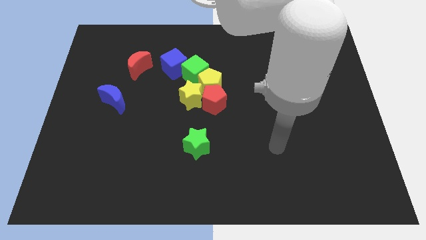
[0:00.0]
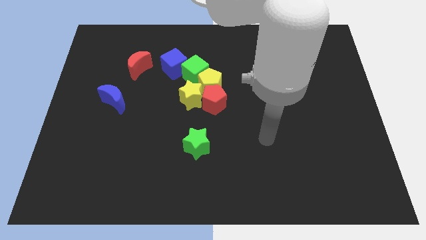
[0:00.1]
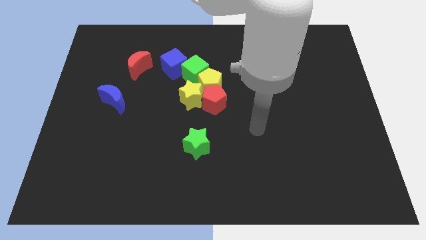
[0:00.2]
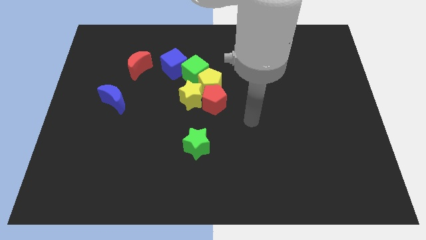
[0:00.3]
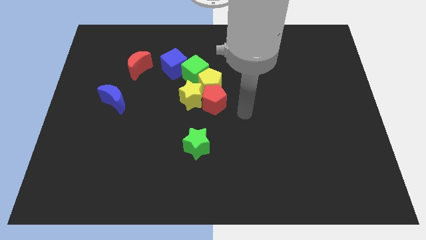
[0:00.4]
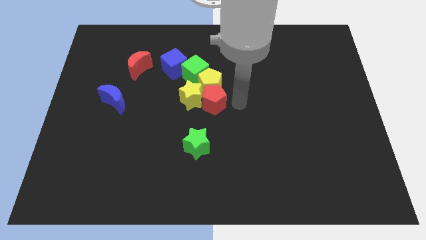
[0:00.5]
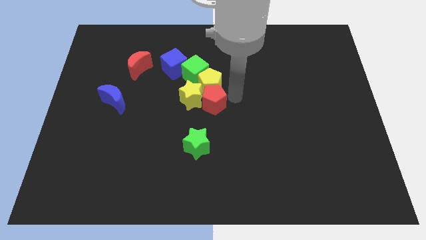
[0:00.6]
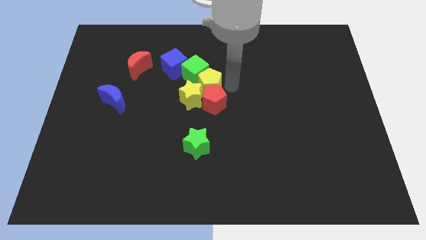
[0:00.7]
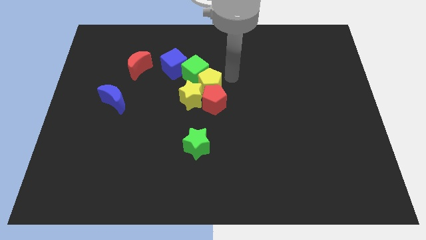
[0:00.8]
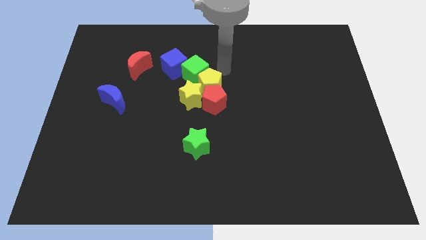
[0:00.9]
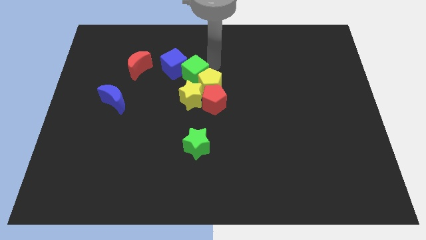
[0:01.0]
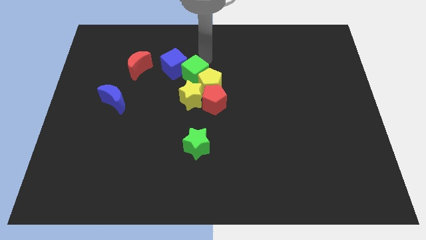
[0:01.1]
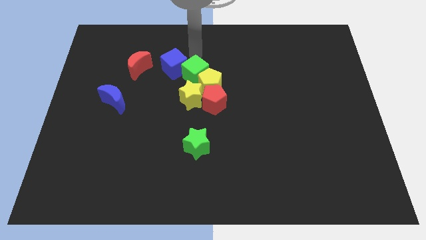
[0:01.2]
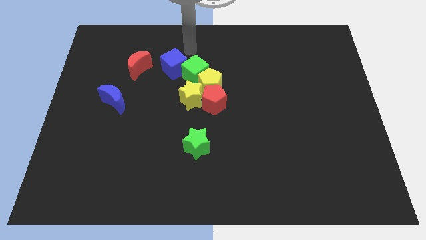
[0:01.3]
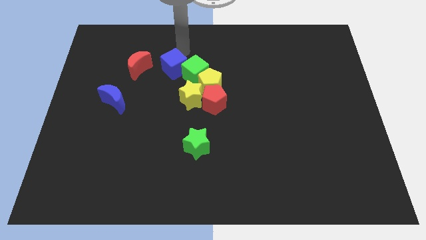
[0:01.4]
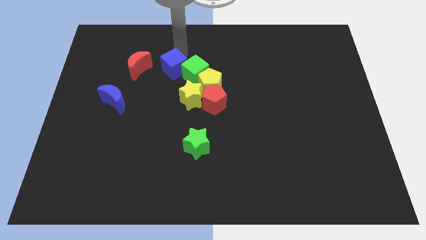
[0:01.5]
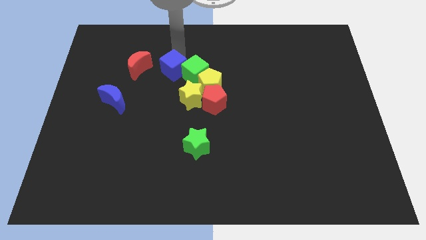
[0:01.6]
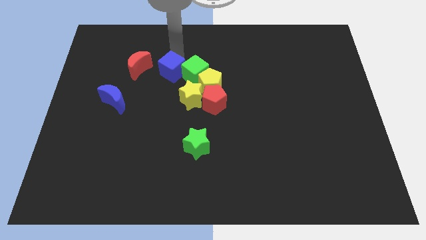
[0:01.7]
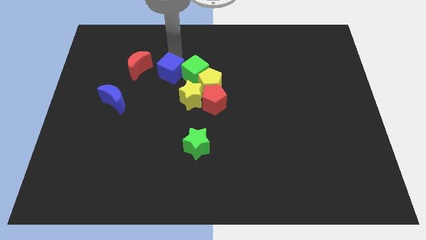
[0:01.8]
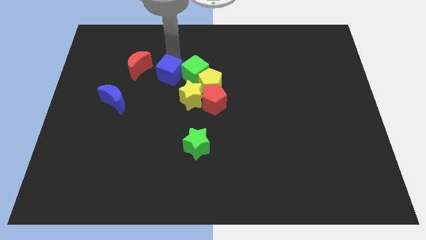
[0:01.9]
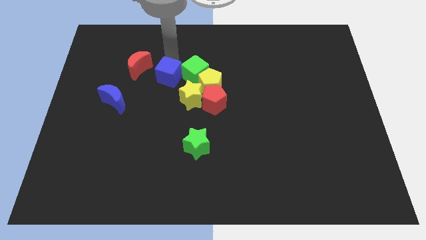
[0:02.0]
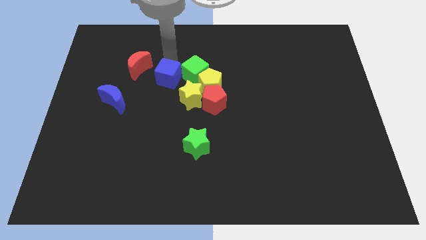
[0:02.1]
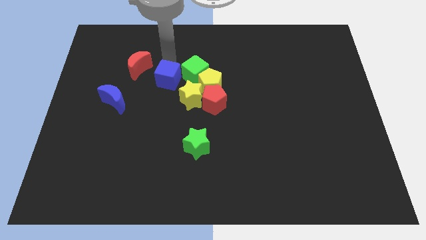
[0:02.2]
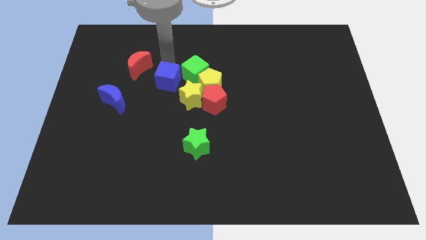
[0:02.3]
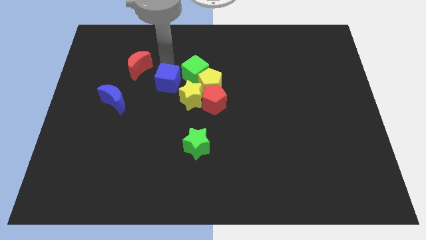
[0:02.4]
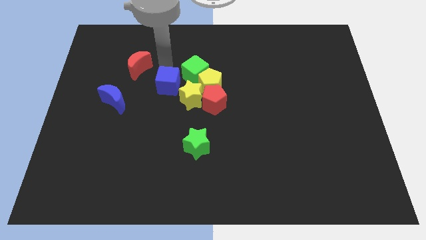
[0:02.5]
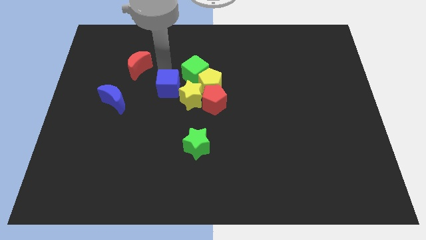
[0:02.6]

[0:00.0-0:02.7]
slightly move the blue cube downwards

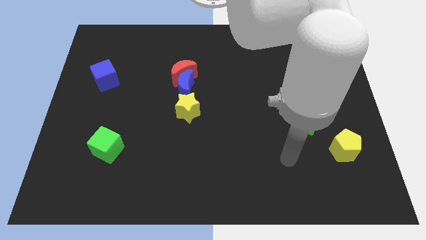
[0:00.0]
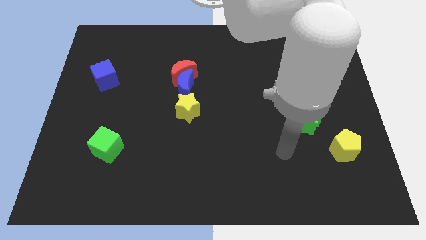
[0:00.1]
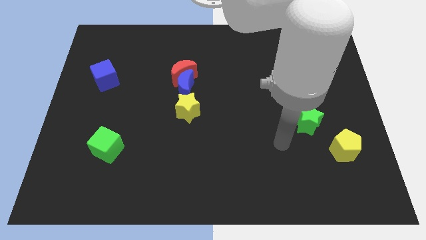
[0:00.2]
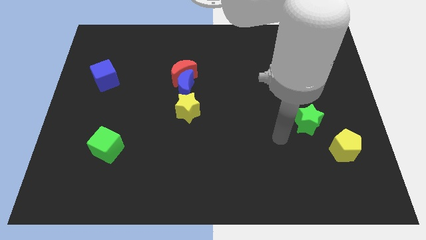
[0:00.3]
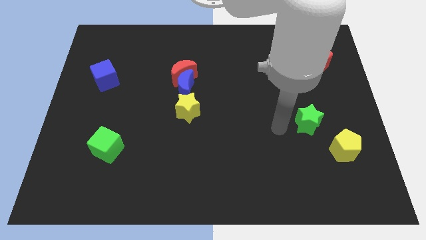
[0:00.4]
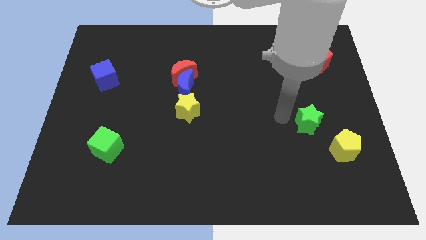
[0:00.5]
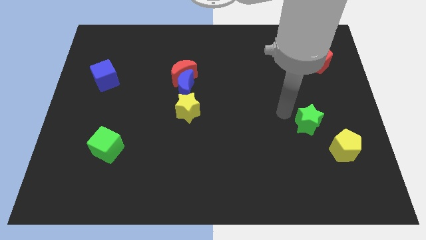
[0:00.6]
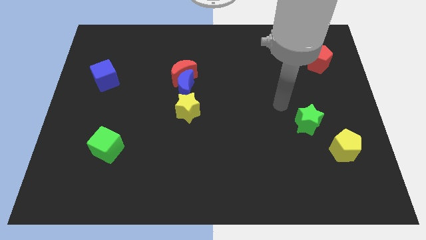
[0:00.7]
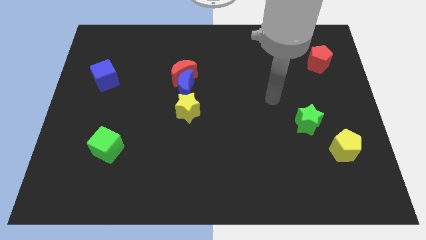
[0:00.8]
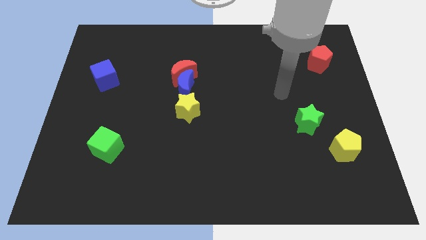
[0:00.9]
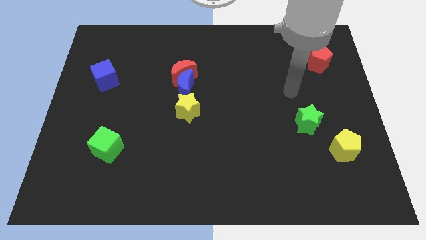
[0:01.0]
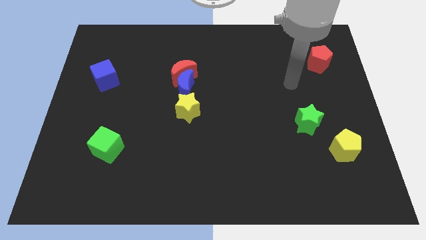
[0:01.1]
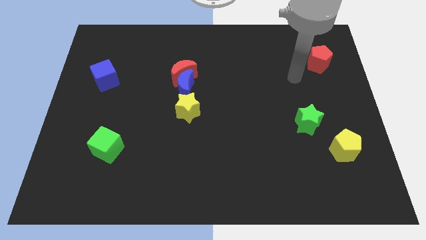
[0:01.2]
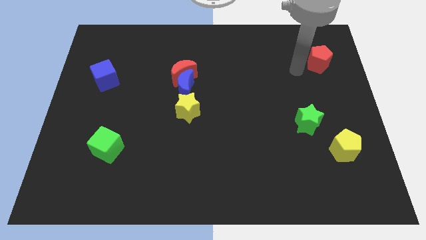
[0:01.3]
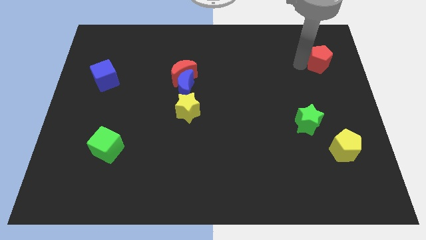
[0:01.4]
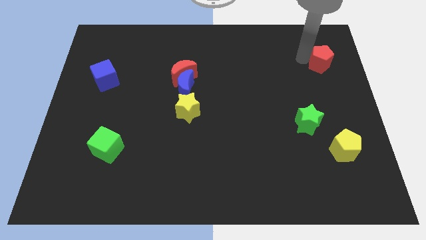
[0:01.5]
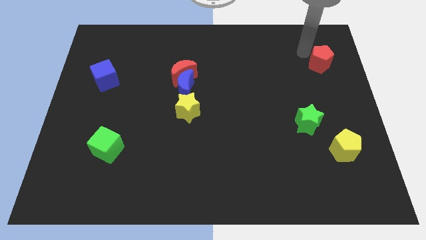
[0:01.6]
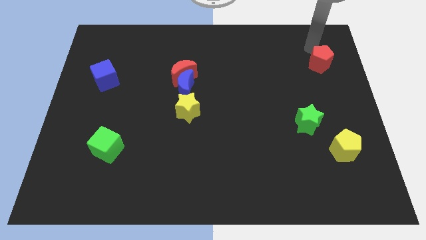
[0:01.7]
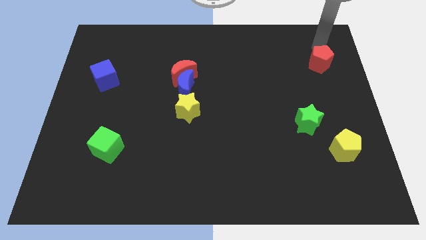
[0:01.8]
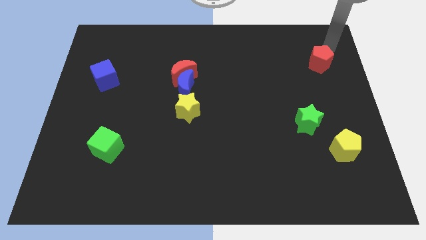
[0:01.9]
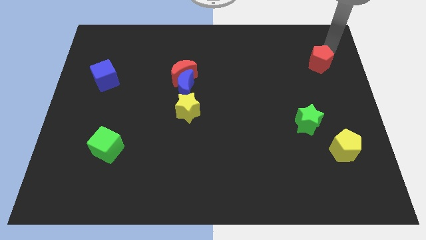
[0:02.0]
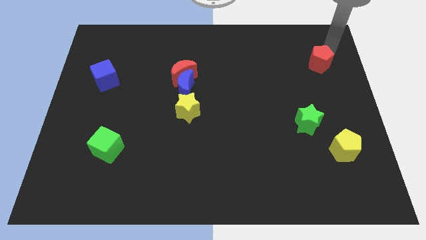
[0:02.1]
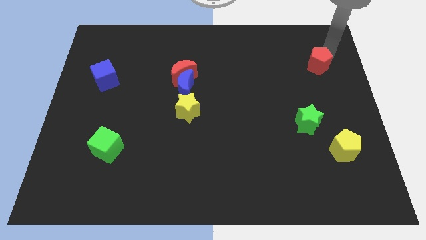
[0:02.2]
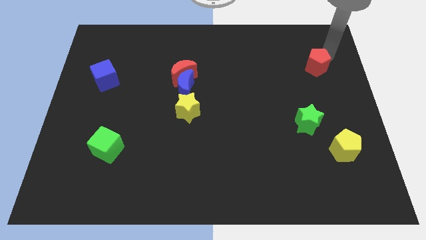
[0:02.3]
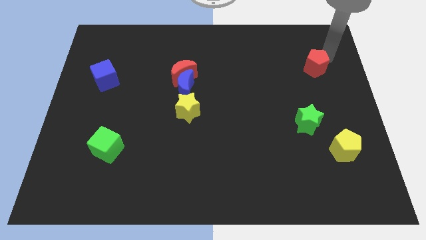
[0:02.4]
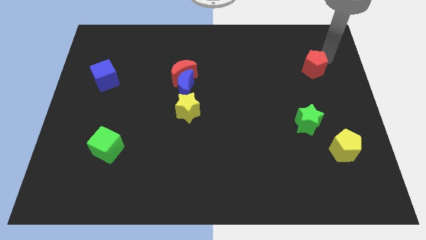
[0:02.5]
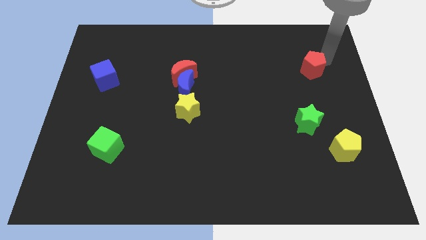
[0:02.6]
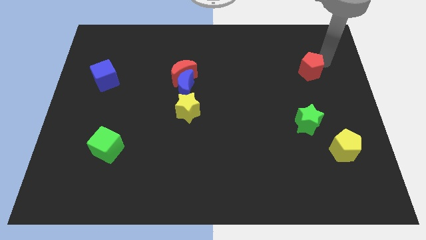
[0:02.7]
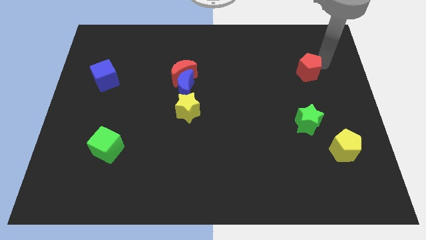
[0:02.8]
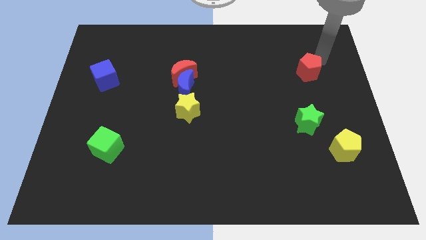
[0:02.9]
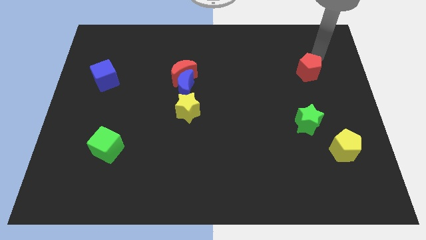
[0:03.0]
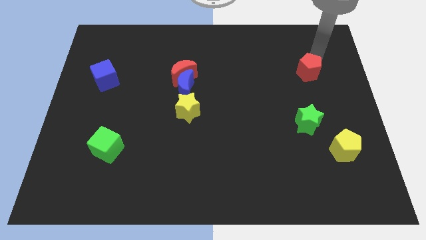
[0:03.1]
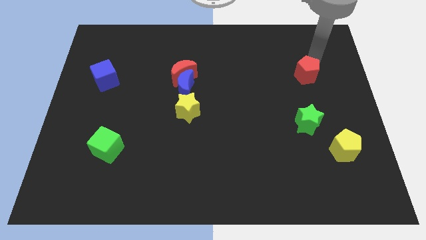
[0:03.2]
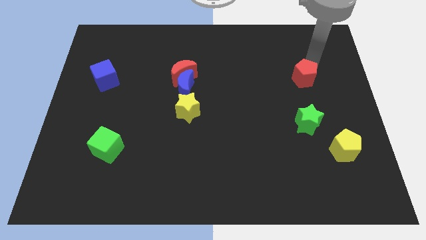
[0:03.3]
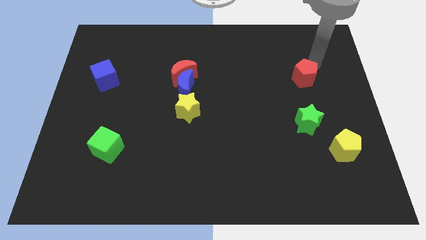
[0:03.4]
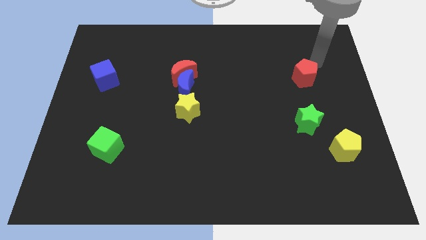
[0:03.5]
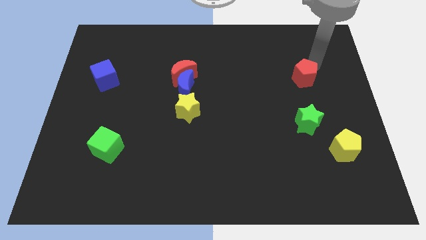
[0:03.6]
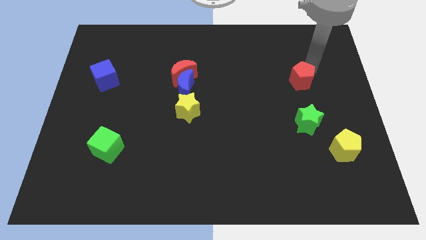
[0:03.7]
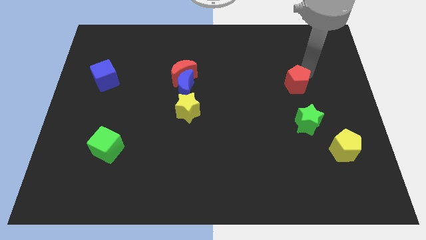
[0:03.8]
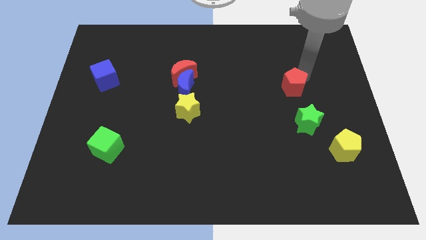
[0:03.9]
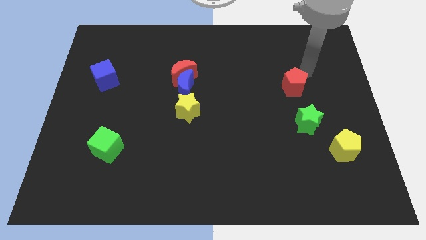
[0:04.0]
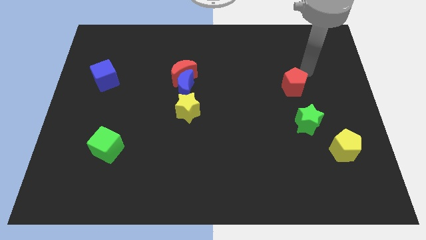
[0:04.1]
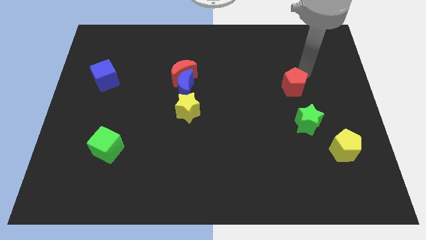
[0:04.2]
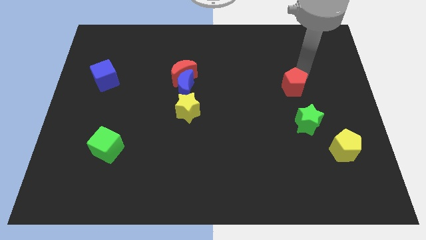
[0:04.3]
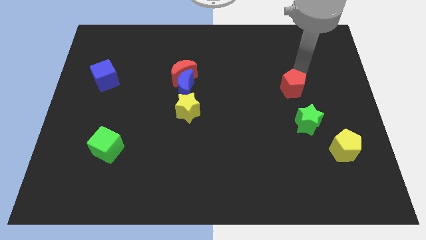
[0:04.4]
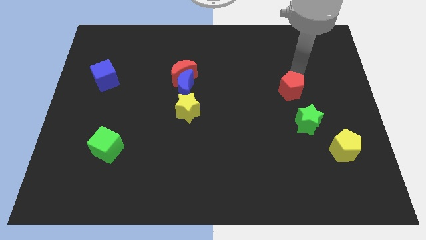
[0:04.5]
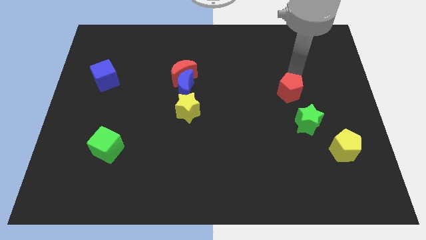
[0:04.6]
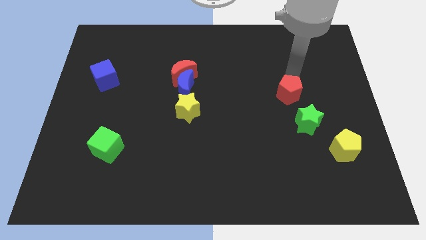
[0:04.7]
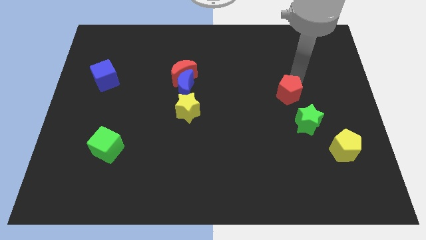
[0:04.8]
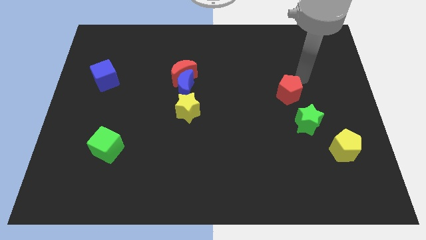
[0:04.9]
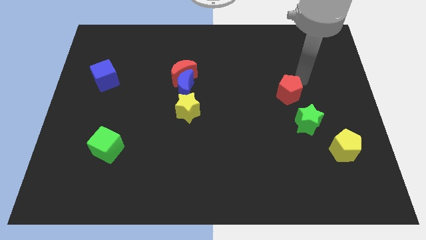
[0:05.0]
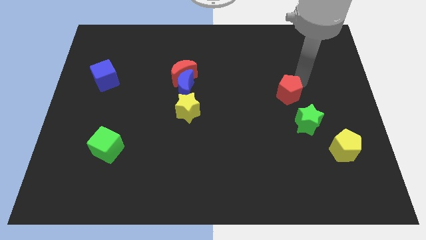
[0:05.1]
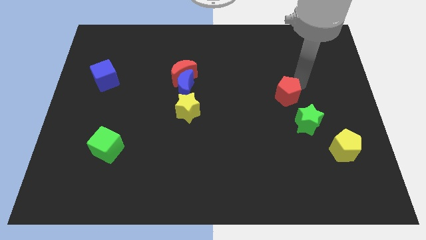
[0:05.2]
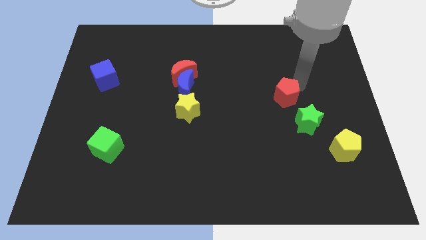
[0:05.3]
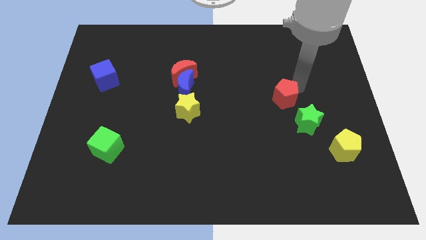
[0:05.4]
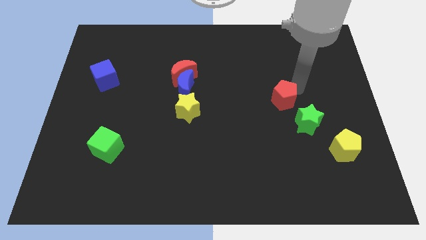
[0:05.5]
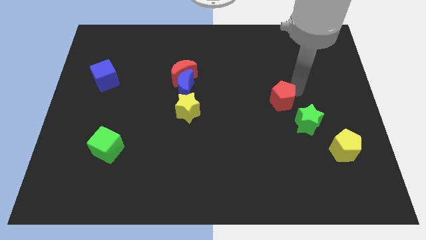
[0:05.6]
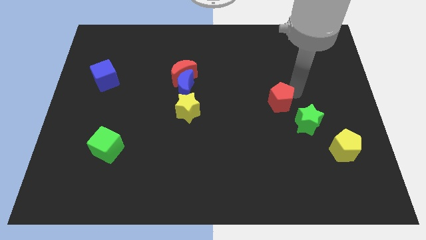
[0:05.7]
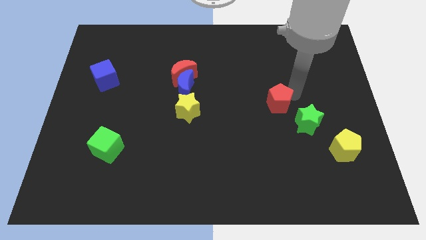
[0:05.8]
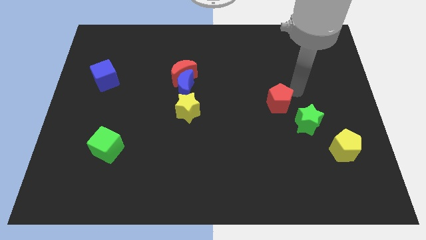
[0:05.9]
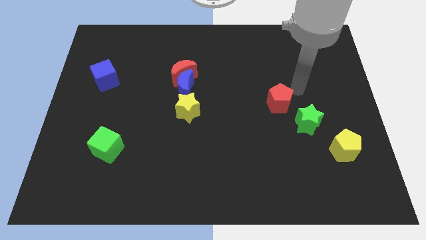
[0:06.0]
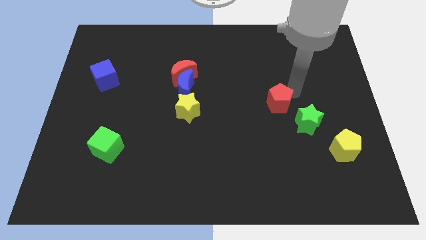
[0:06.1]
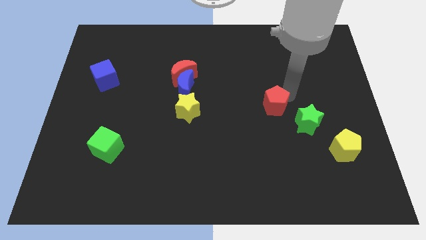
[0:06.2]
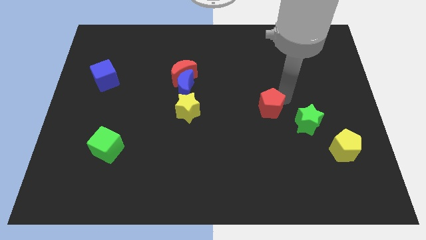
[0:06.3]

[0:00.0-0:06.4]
move the red pentagon downwards and left
